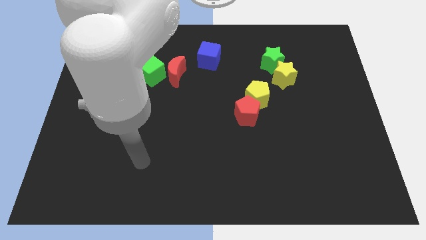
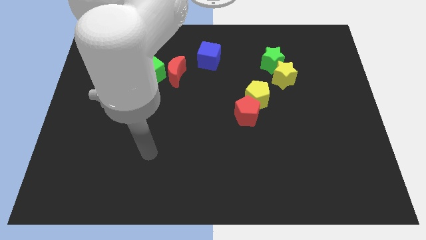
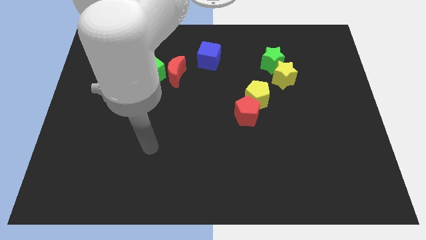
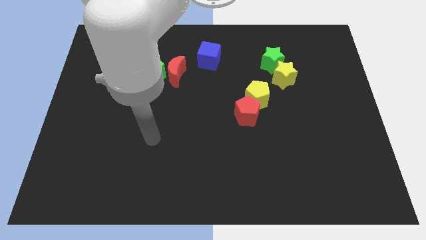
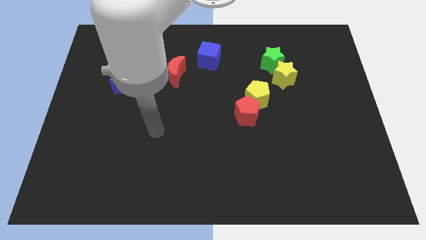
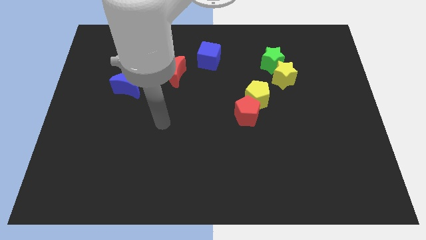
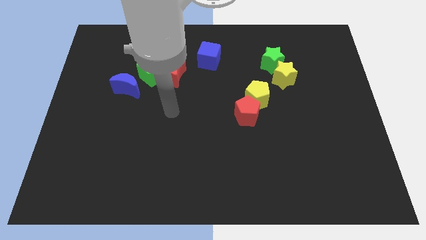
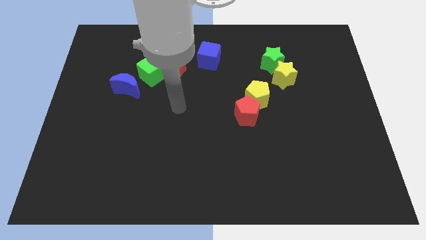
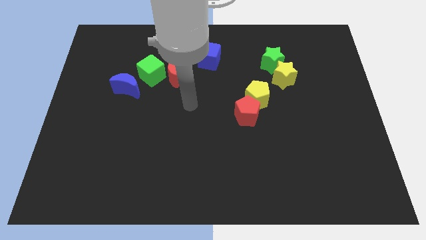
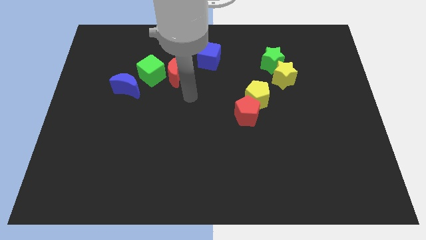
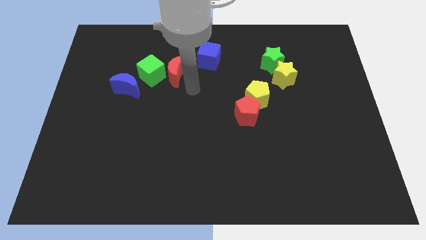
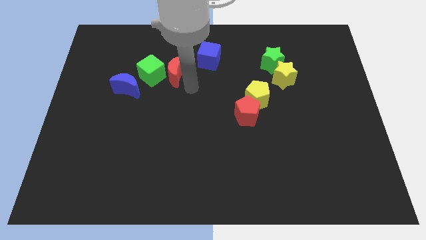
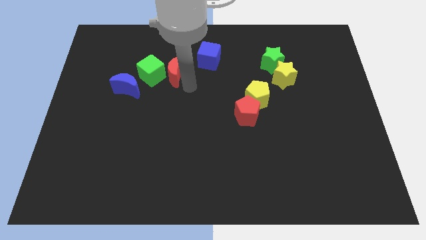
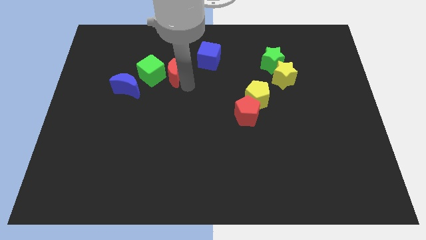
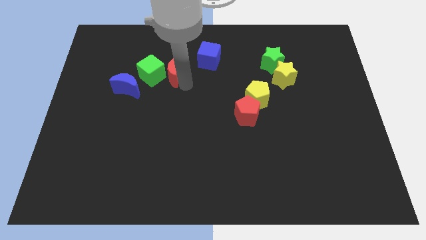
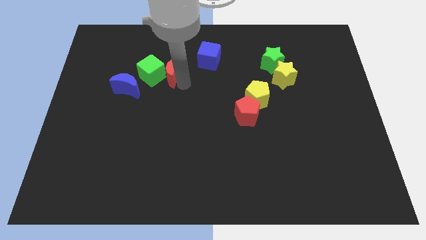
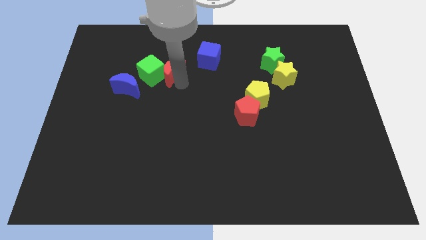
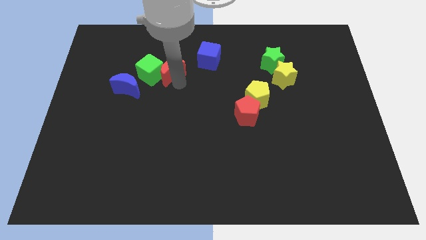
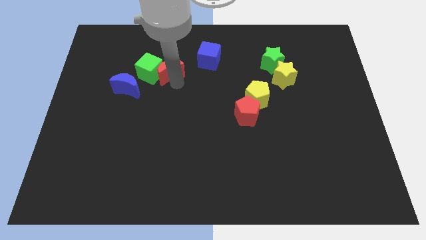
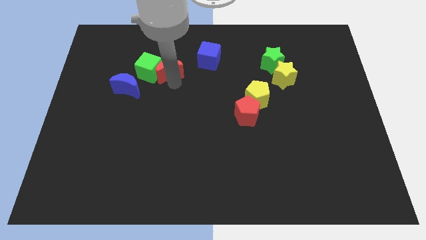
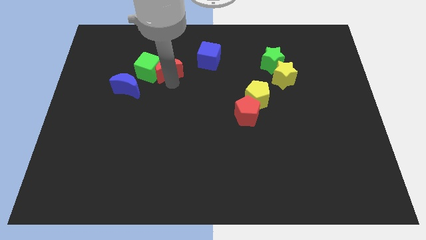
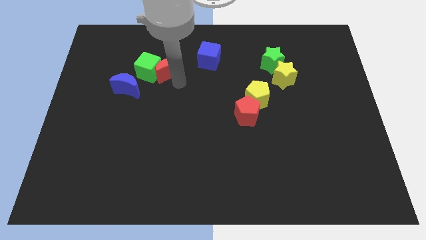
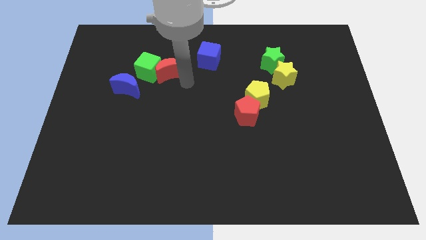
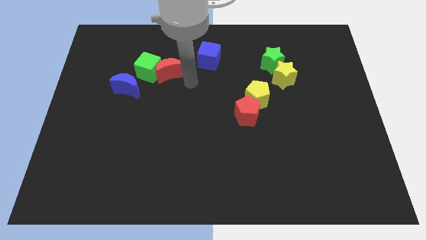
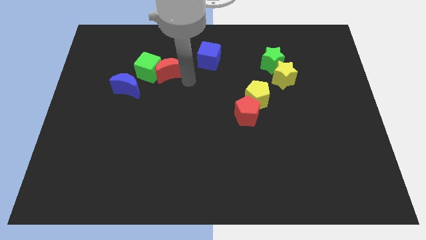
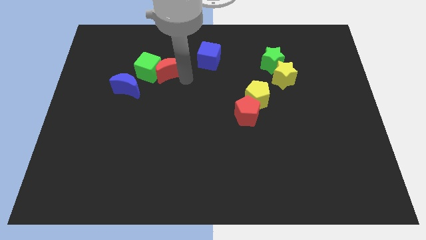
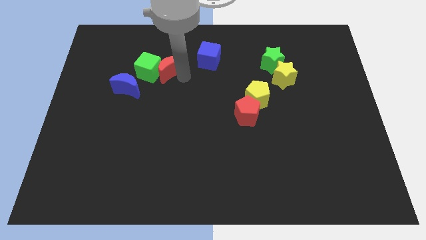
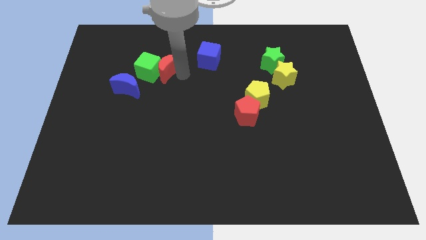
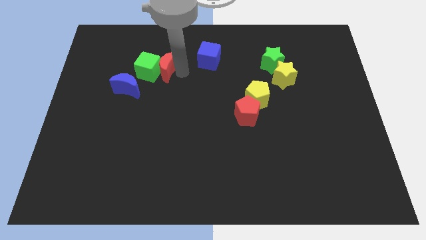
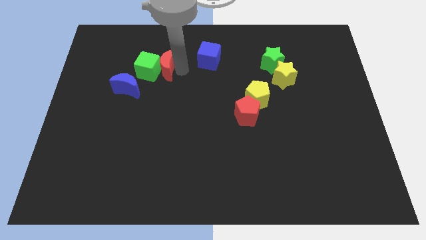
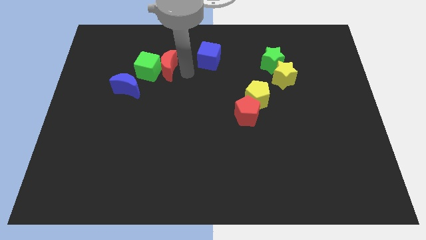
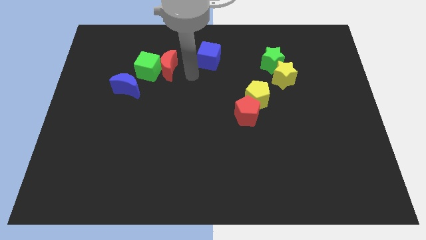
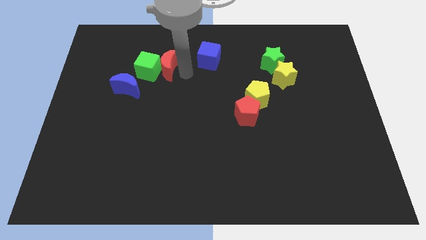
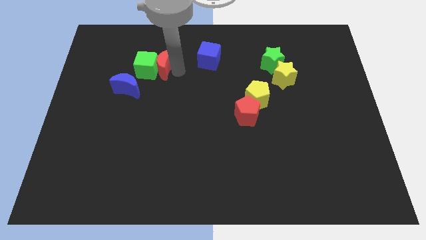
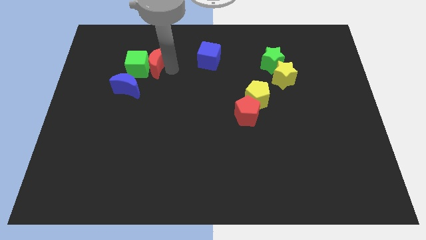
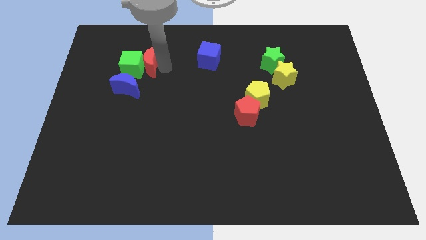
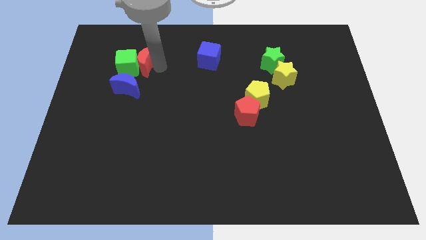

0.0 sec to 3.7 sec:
push the red moon to the left a little bit

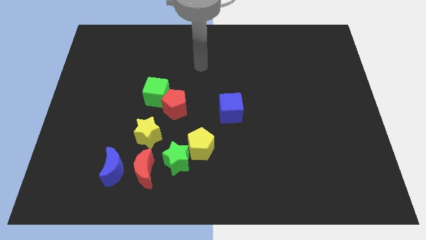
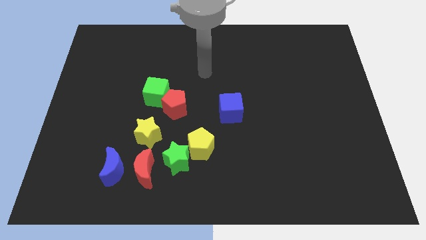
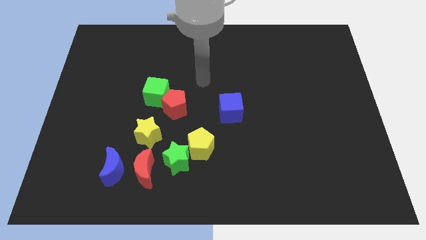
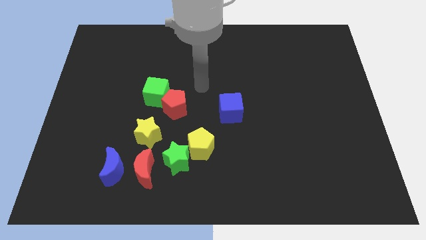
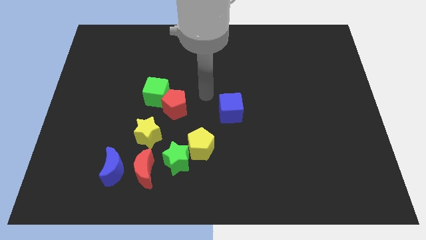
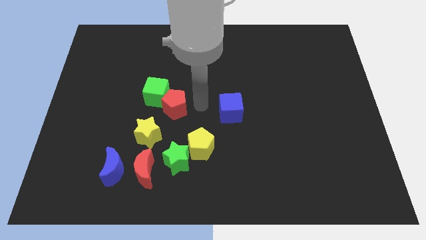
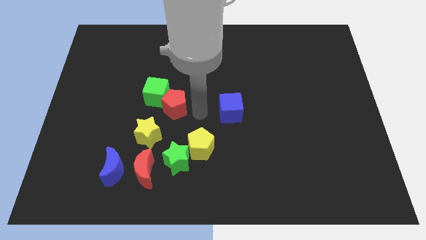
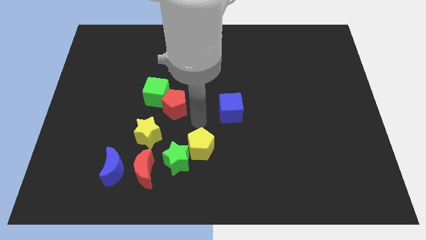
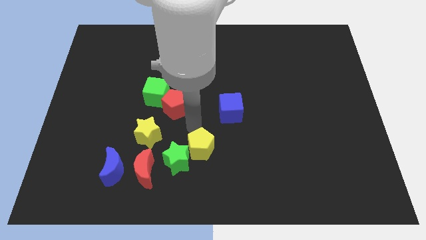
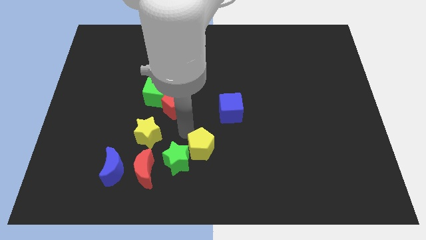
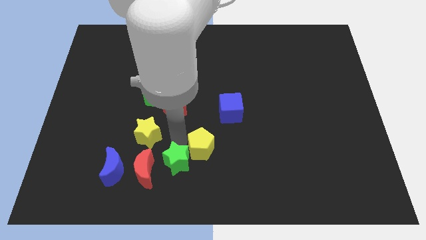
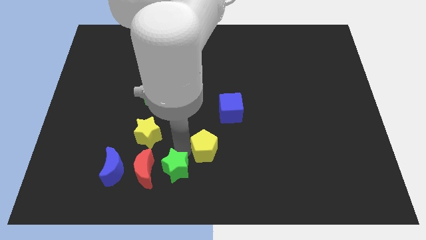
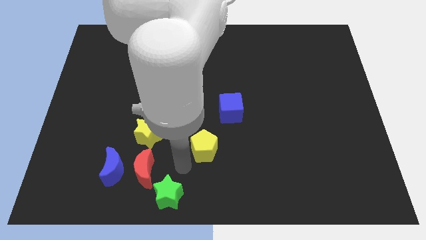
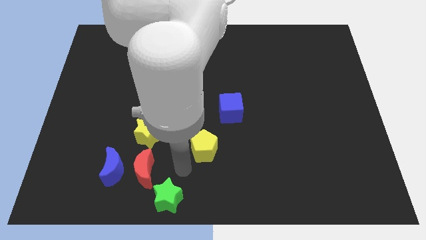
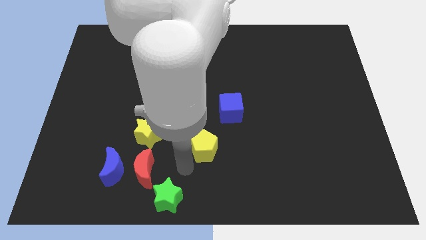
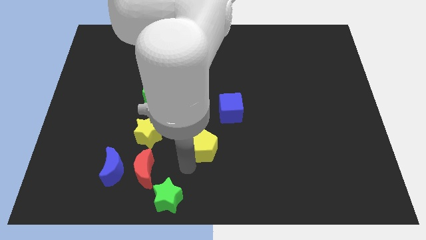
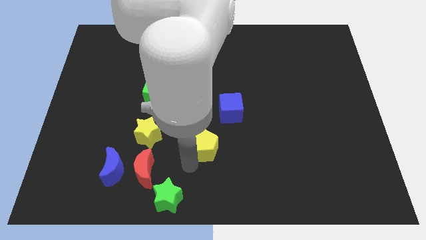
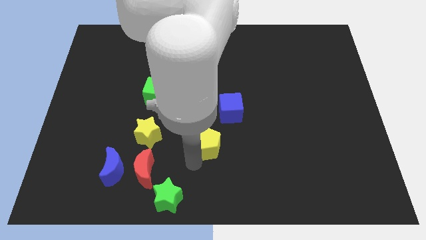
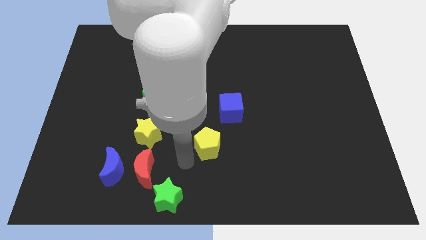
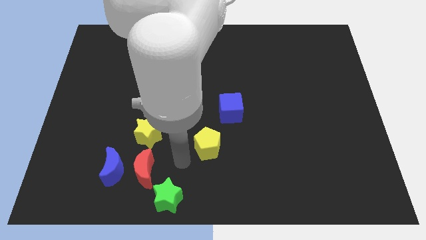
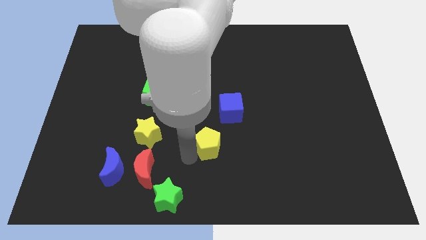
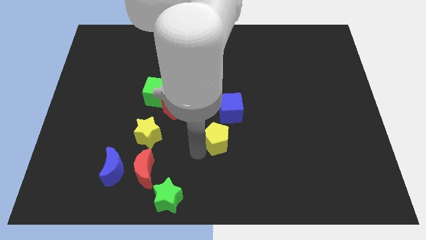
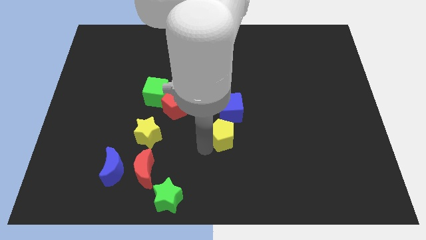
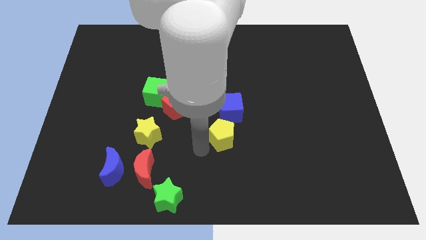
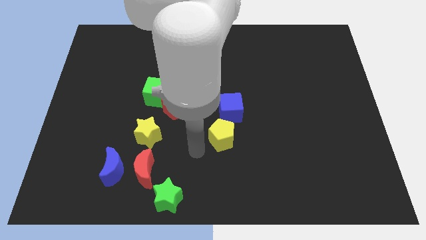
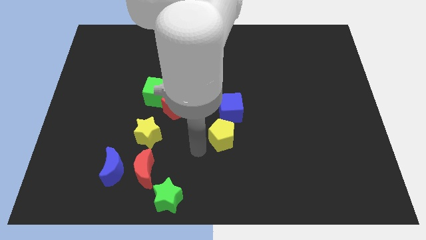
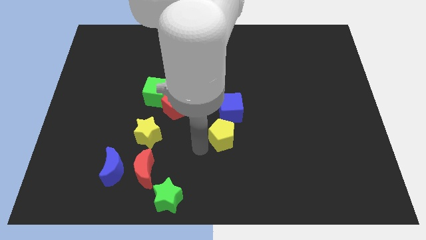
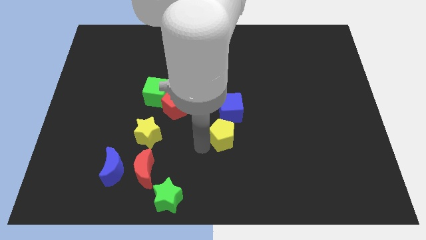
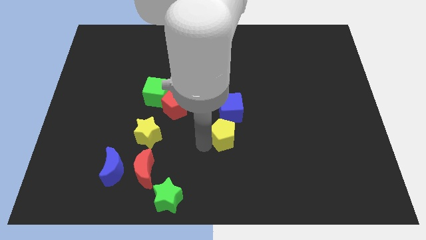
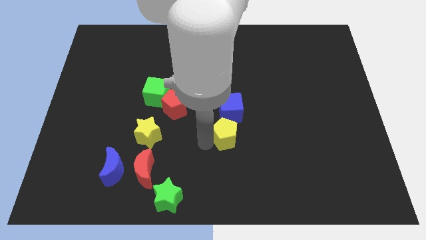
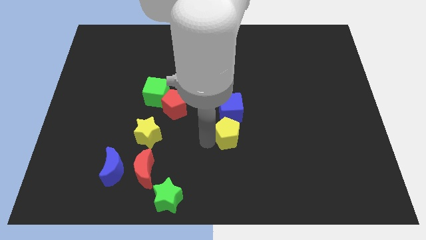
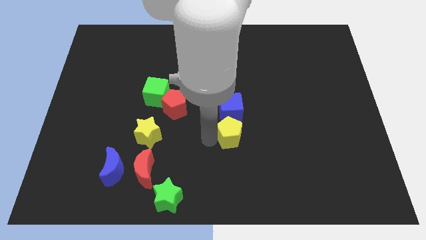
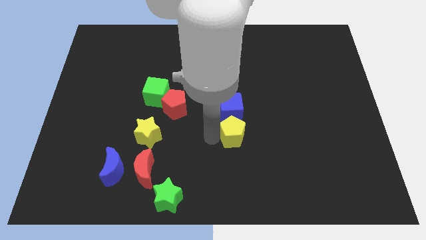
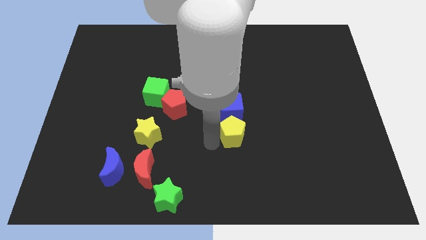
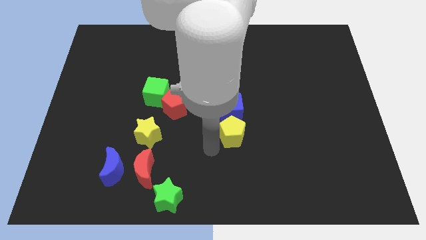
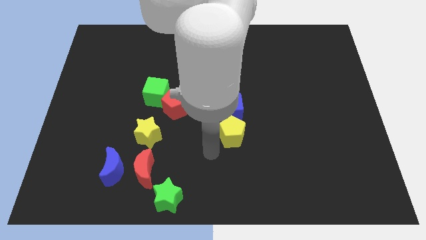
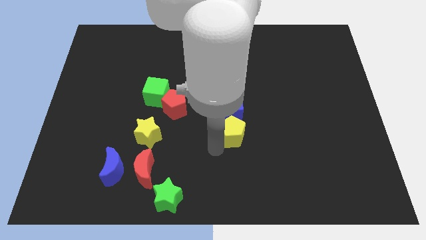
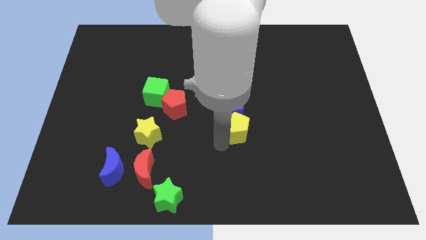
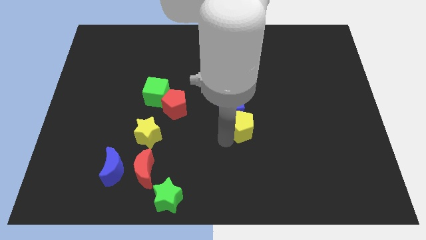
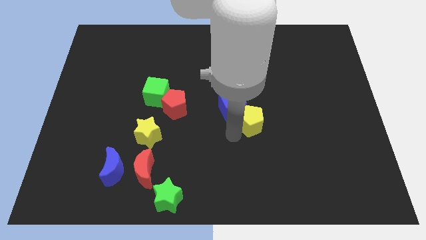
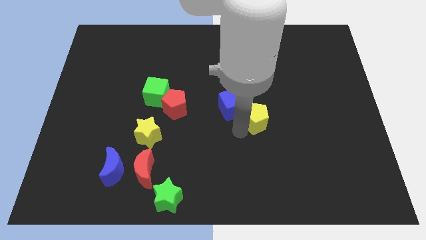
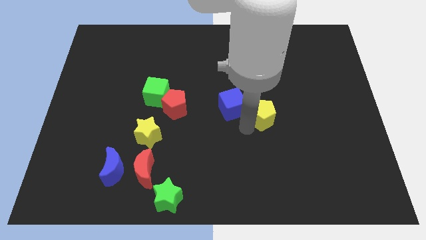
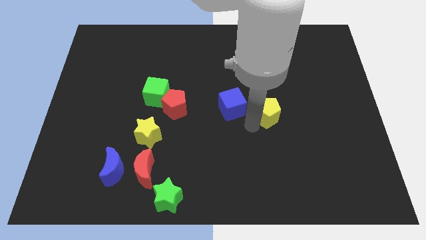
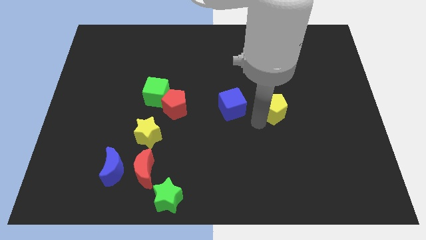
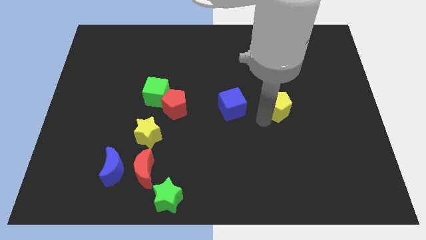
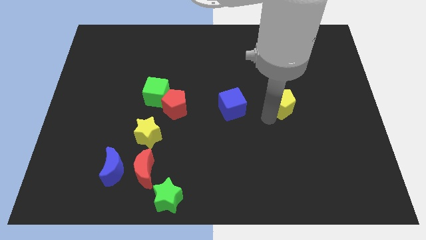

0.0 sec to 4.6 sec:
slide the yellow pentagon diagonally up and right

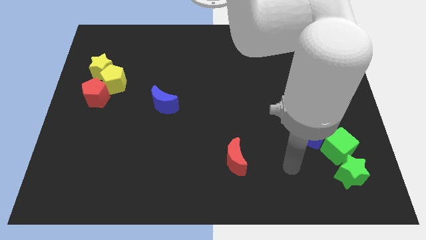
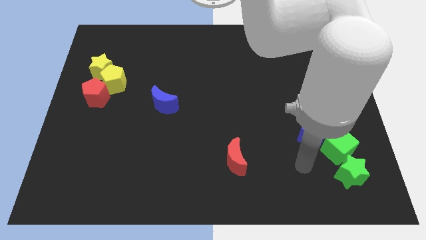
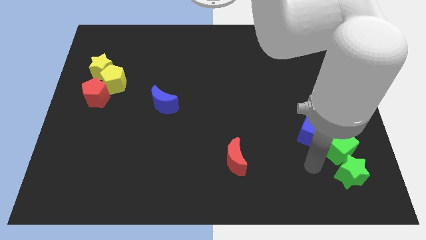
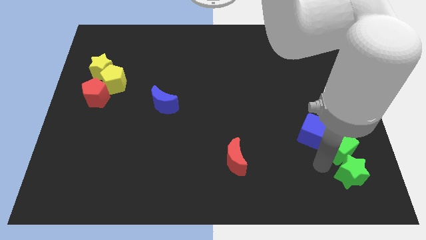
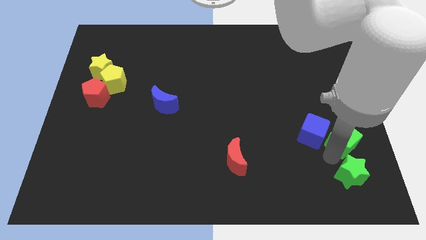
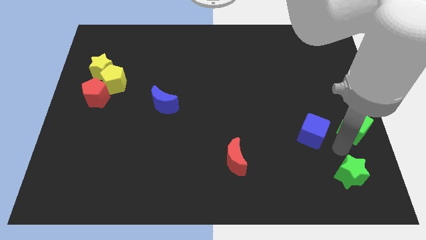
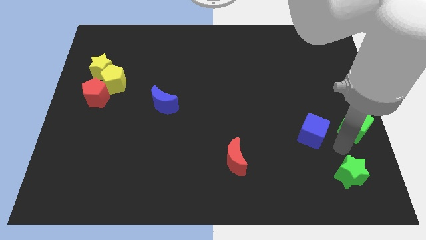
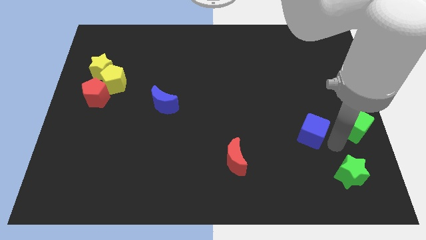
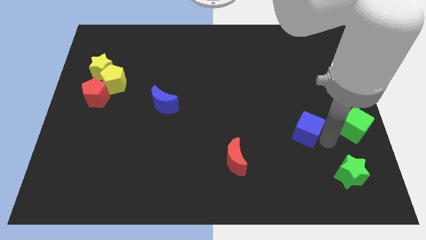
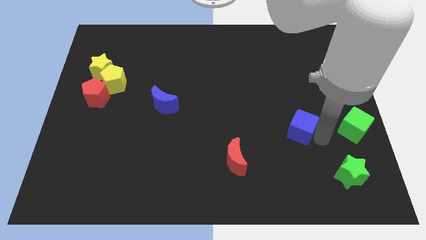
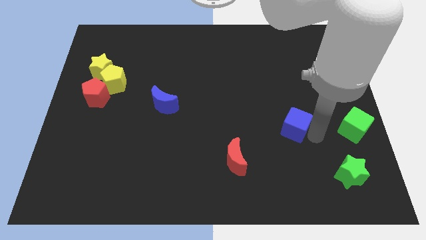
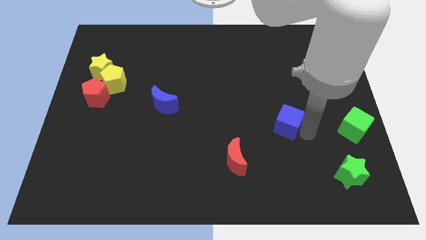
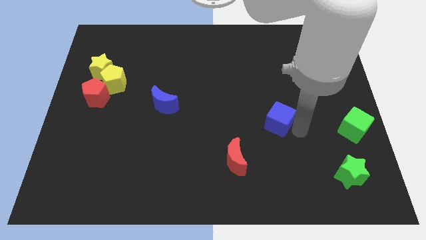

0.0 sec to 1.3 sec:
push the blue cube a bit upwards and to the left
